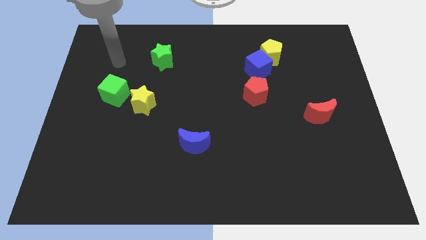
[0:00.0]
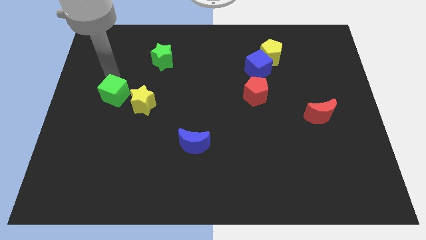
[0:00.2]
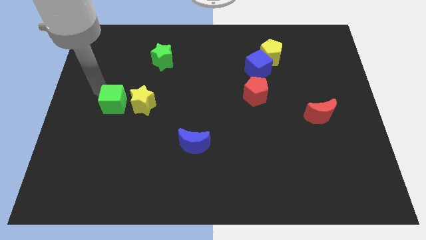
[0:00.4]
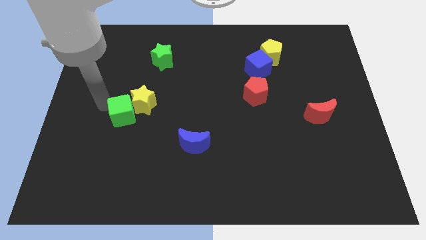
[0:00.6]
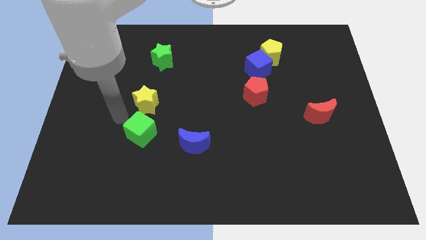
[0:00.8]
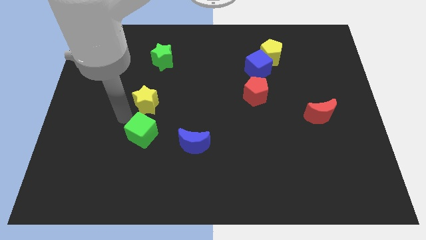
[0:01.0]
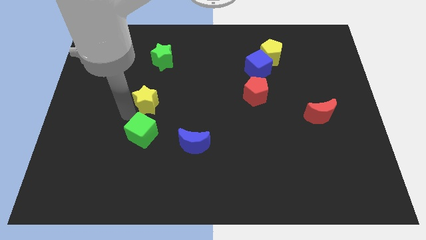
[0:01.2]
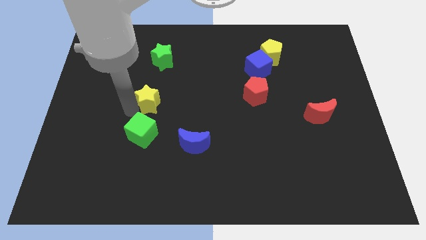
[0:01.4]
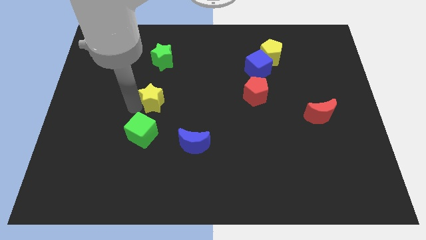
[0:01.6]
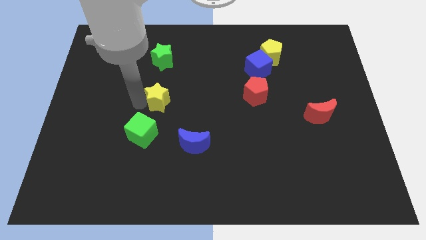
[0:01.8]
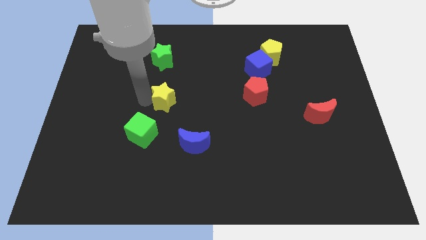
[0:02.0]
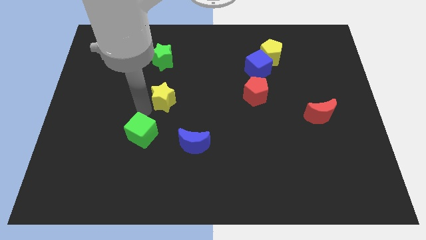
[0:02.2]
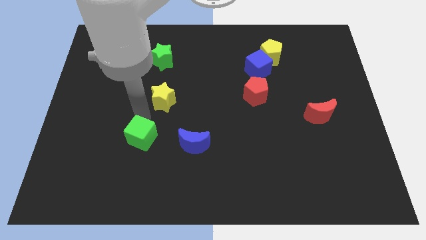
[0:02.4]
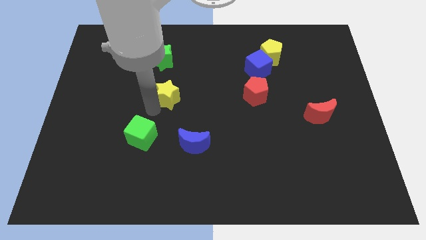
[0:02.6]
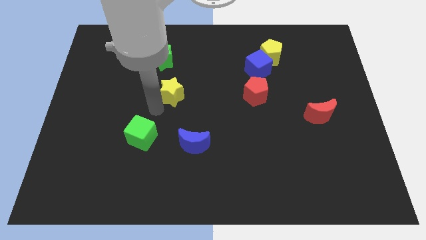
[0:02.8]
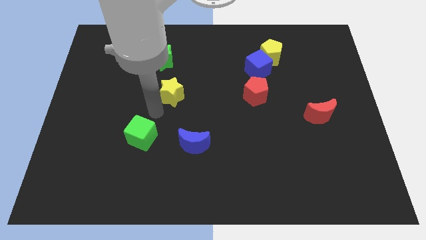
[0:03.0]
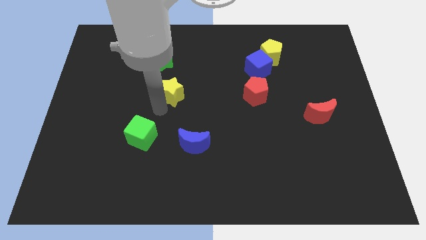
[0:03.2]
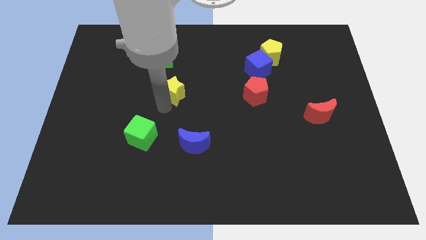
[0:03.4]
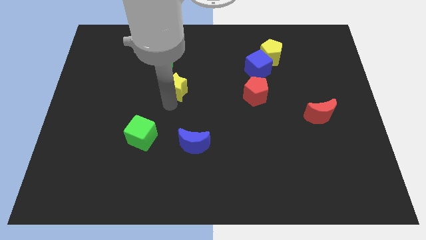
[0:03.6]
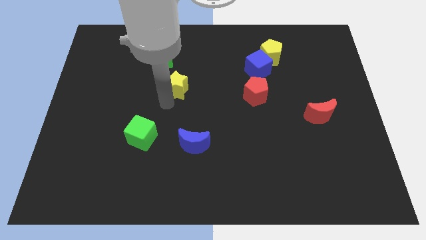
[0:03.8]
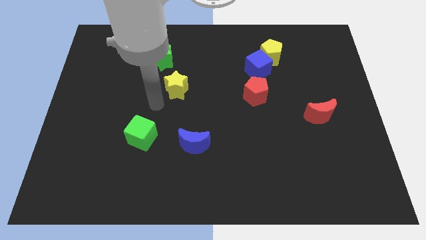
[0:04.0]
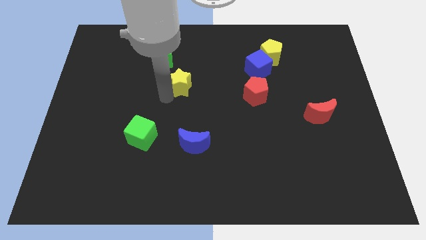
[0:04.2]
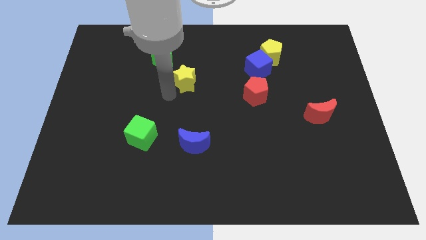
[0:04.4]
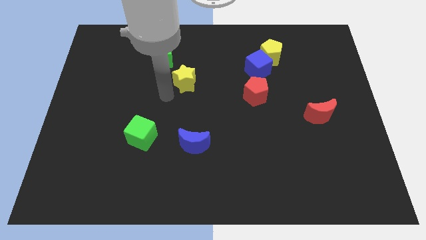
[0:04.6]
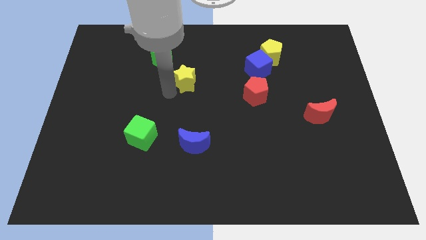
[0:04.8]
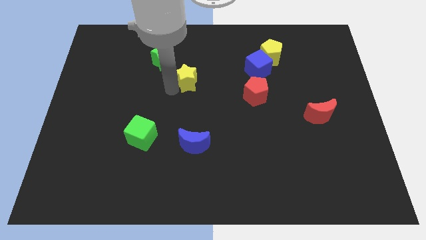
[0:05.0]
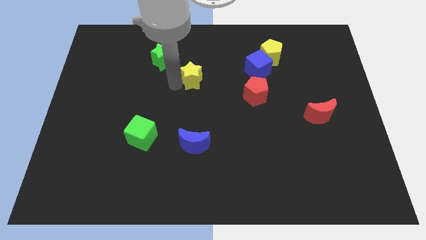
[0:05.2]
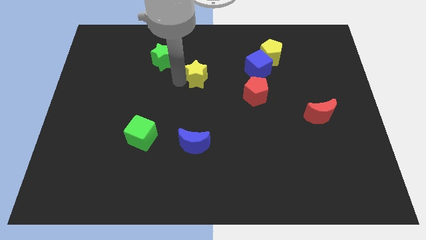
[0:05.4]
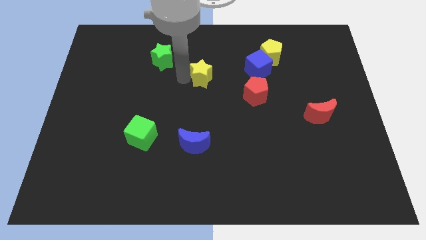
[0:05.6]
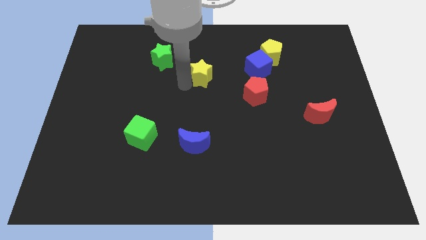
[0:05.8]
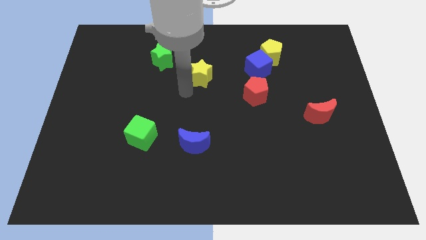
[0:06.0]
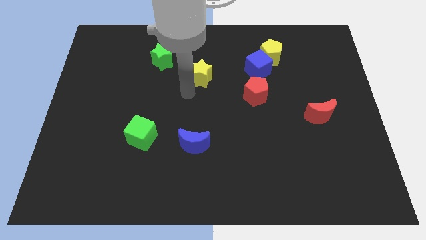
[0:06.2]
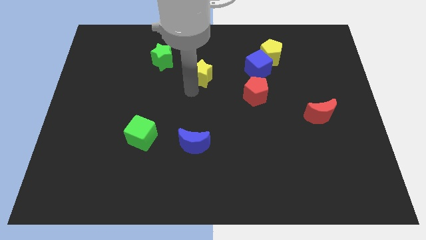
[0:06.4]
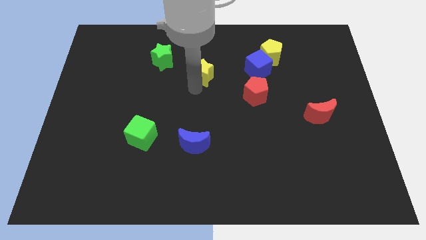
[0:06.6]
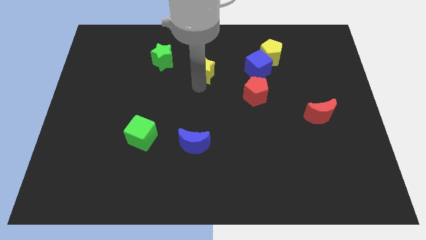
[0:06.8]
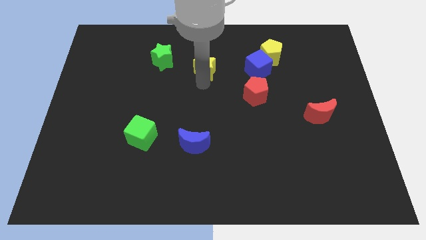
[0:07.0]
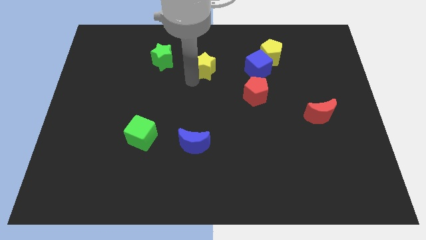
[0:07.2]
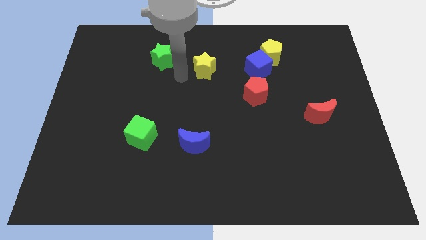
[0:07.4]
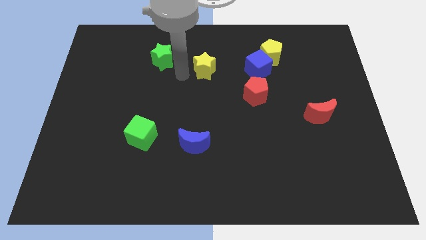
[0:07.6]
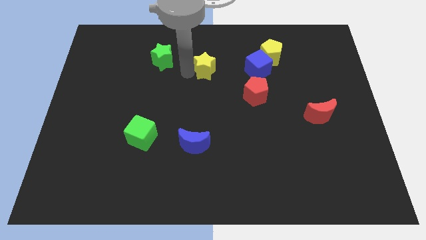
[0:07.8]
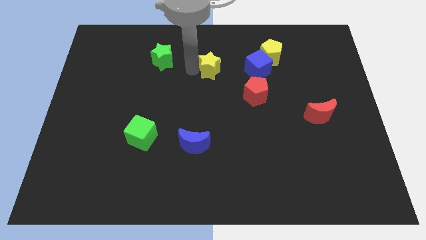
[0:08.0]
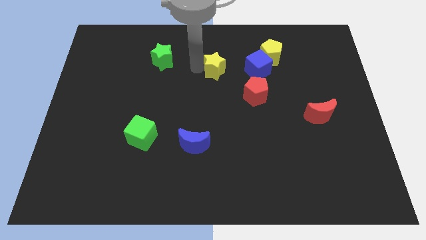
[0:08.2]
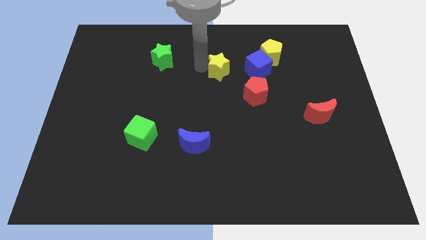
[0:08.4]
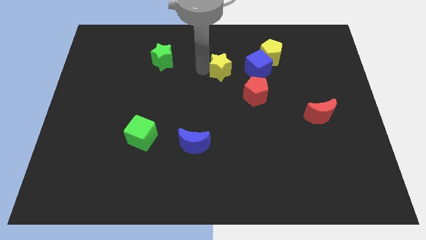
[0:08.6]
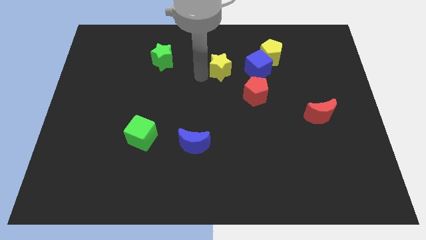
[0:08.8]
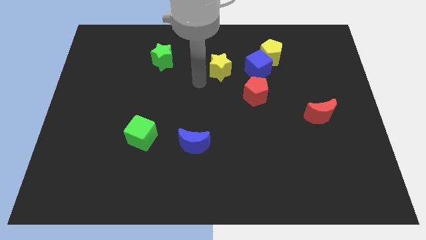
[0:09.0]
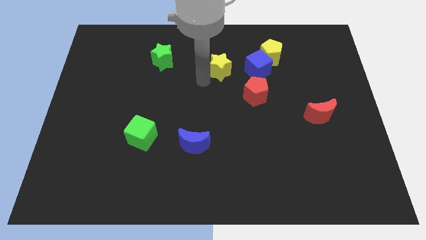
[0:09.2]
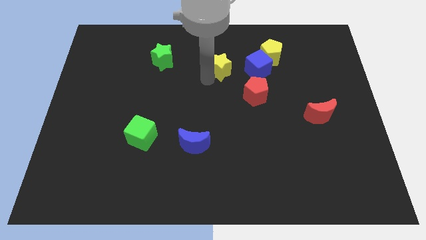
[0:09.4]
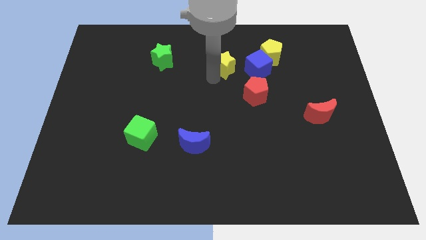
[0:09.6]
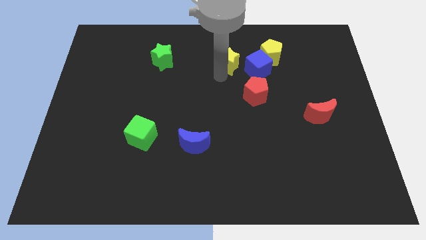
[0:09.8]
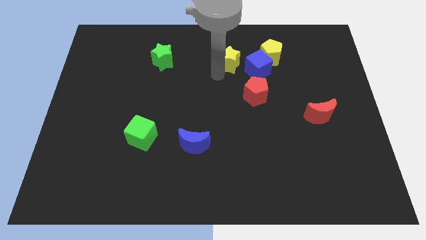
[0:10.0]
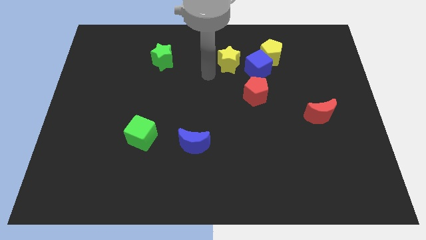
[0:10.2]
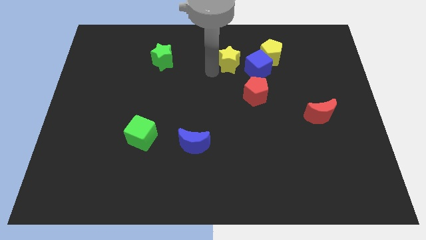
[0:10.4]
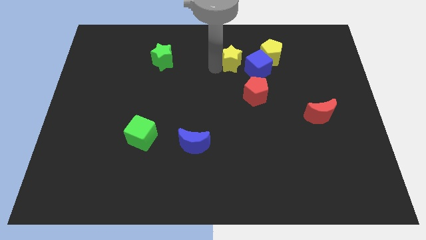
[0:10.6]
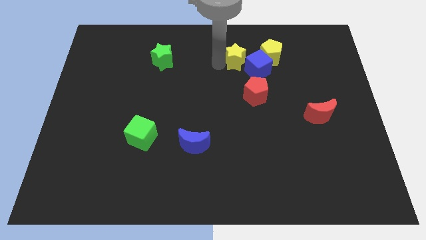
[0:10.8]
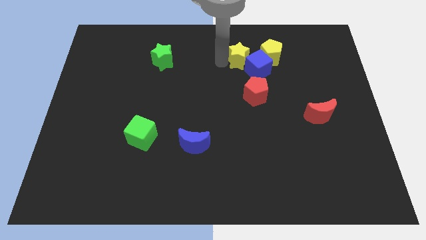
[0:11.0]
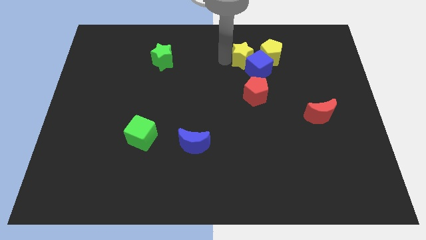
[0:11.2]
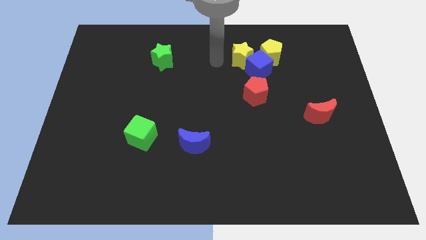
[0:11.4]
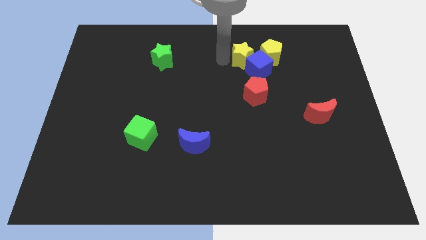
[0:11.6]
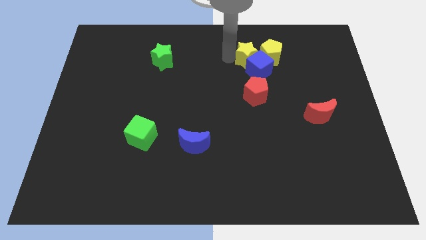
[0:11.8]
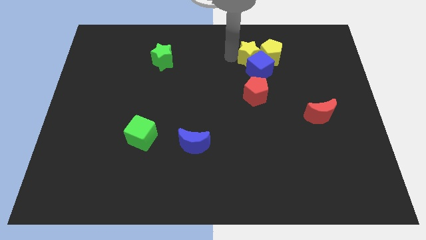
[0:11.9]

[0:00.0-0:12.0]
push the yellow star to the yellow pentagon

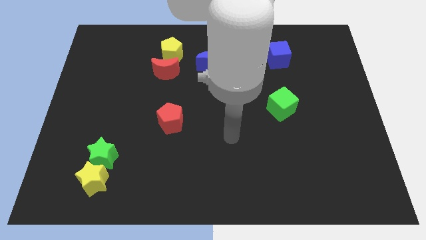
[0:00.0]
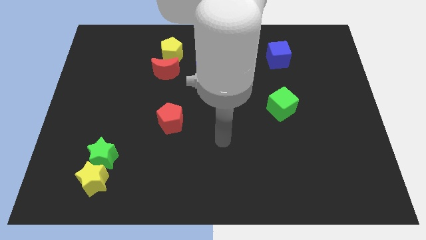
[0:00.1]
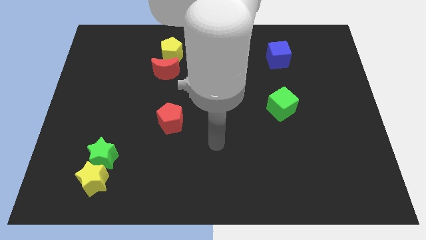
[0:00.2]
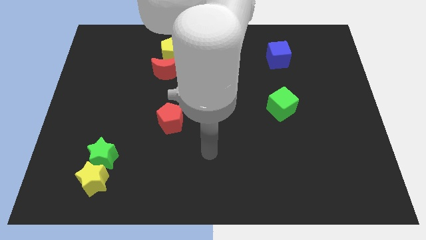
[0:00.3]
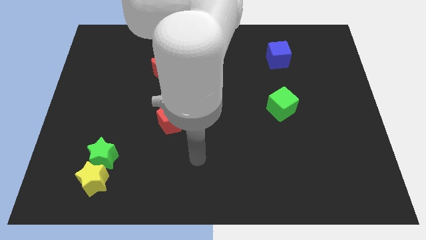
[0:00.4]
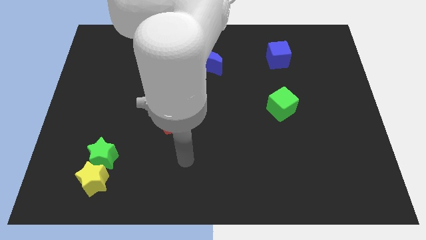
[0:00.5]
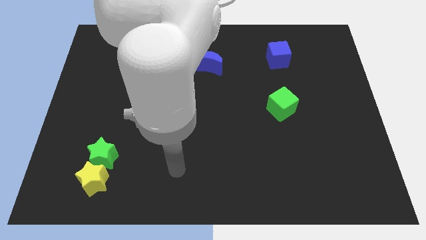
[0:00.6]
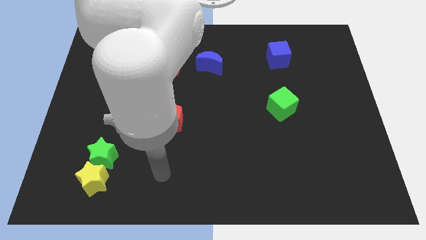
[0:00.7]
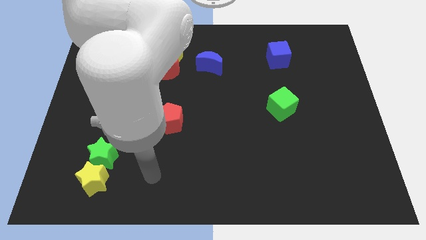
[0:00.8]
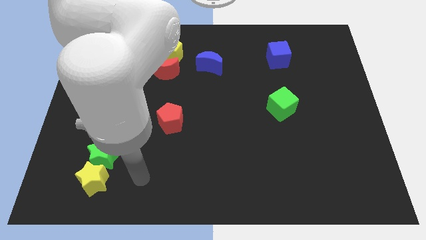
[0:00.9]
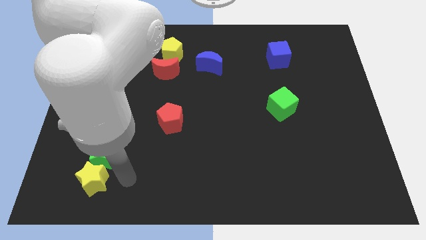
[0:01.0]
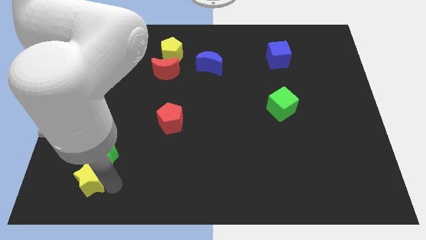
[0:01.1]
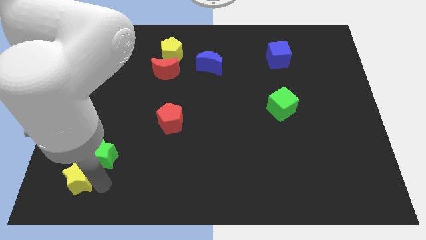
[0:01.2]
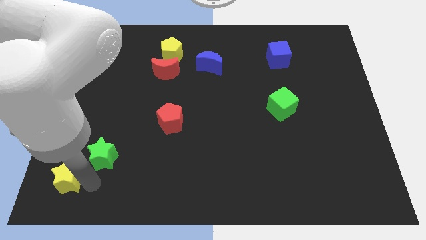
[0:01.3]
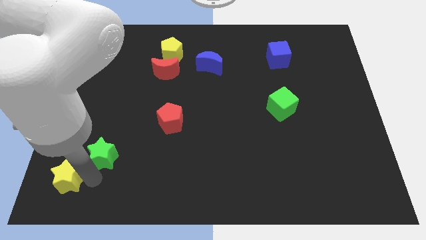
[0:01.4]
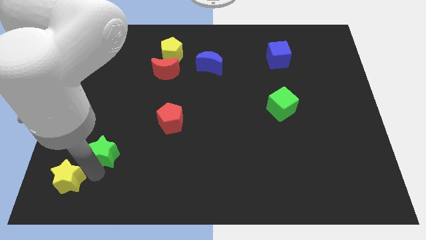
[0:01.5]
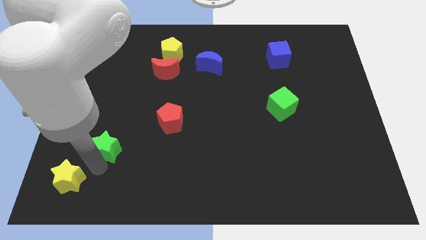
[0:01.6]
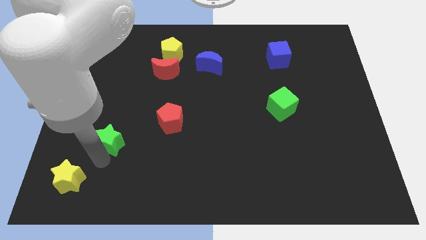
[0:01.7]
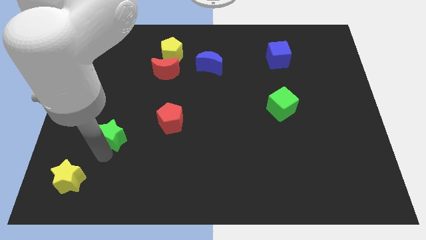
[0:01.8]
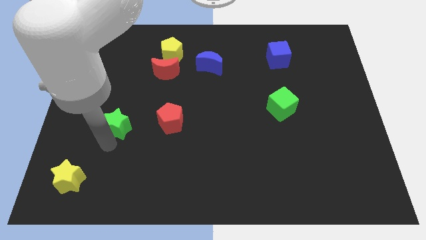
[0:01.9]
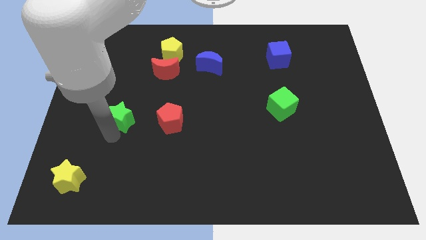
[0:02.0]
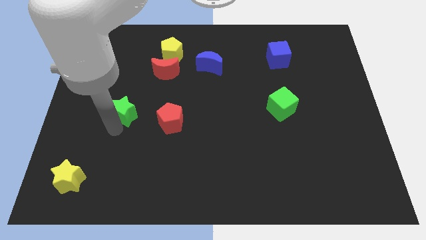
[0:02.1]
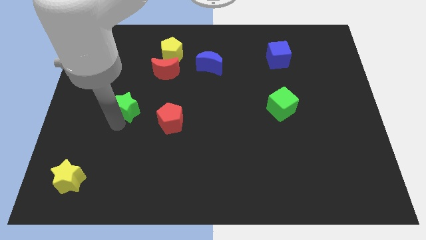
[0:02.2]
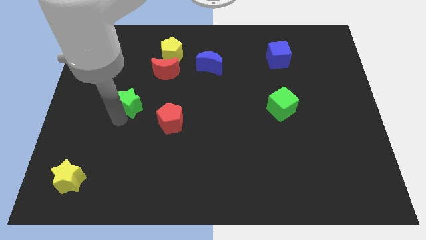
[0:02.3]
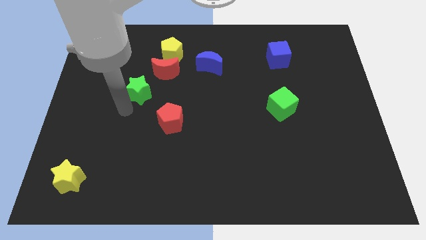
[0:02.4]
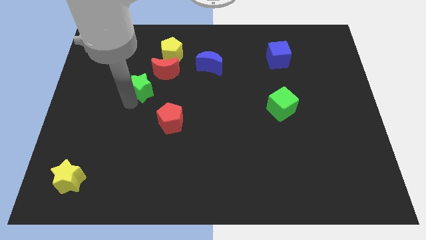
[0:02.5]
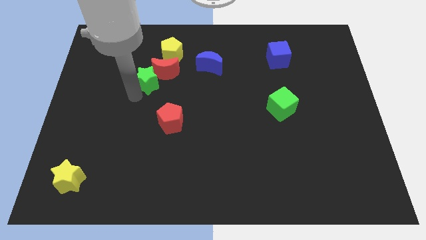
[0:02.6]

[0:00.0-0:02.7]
move the green star towards the red moon
